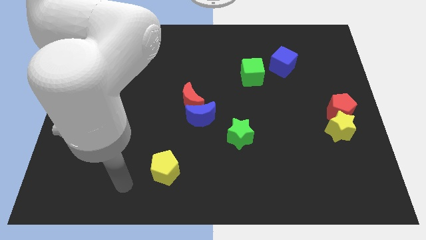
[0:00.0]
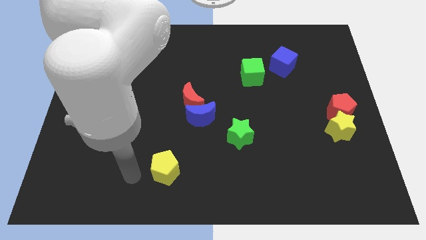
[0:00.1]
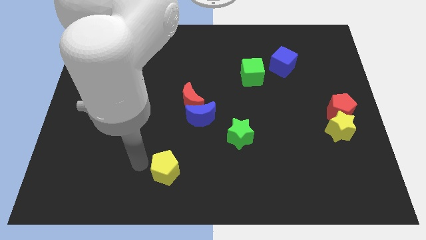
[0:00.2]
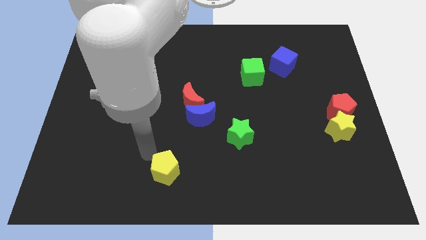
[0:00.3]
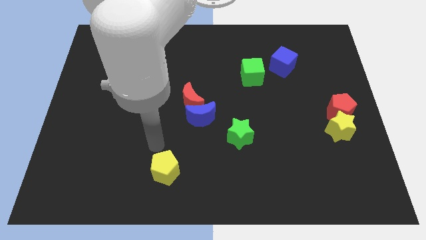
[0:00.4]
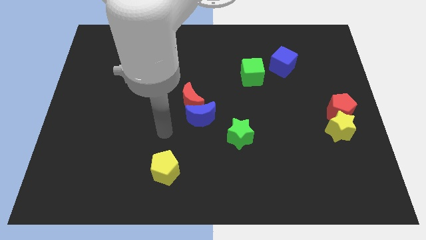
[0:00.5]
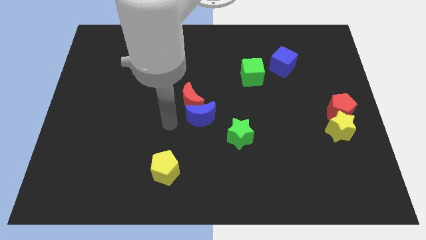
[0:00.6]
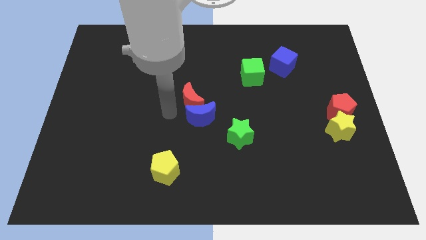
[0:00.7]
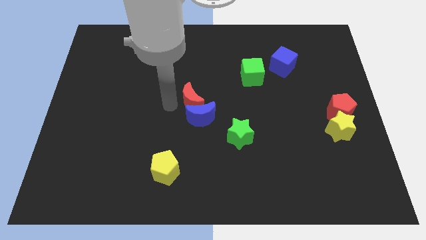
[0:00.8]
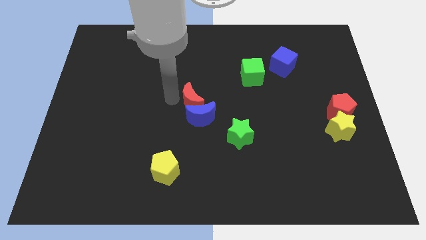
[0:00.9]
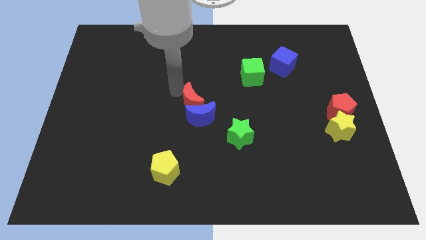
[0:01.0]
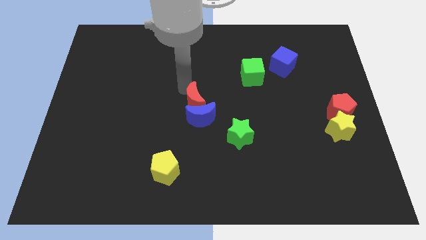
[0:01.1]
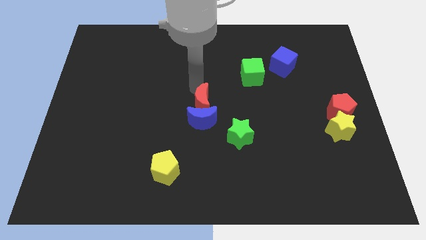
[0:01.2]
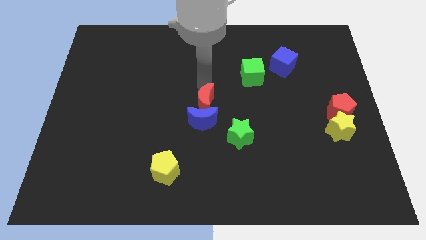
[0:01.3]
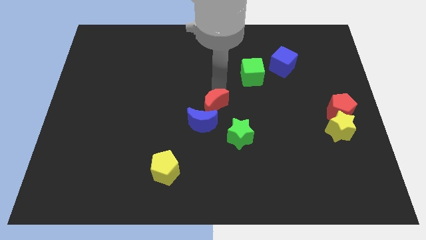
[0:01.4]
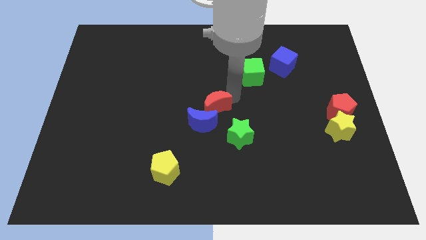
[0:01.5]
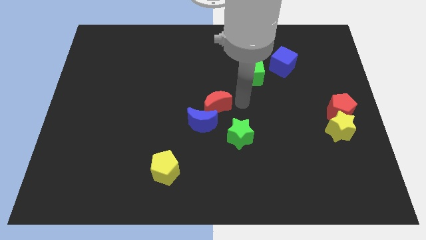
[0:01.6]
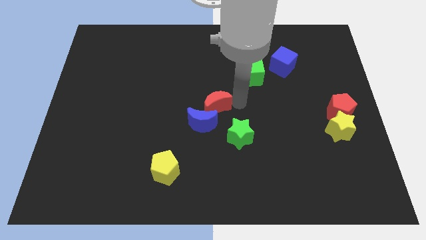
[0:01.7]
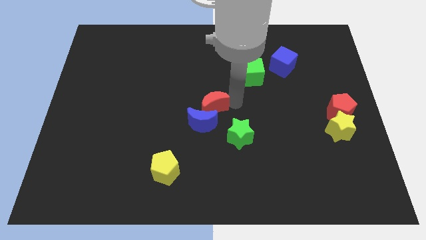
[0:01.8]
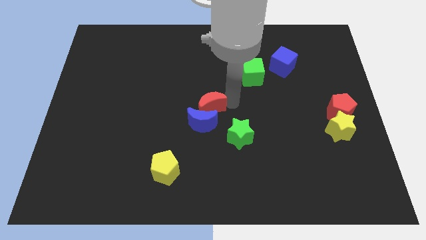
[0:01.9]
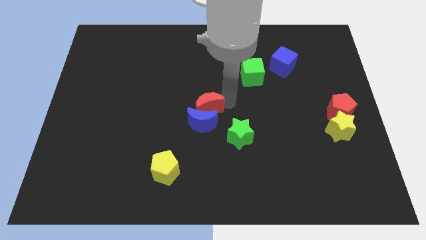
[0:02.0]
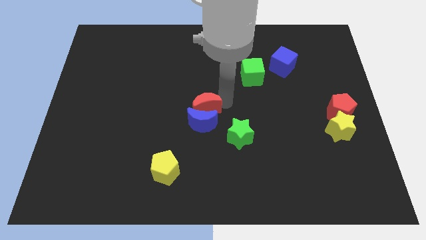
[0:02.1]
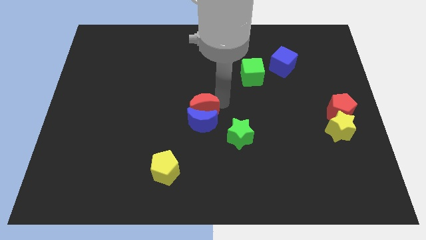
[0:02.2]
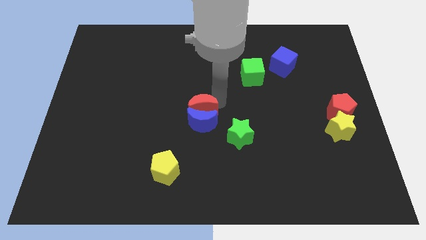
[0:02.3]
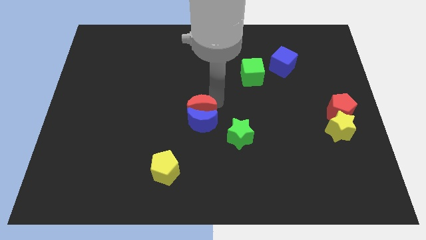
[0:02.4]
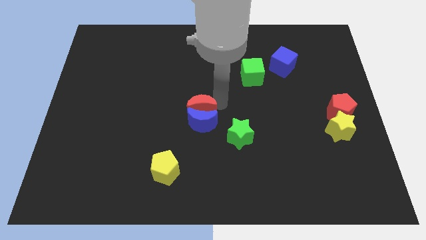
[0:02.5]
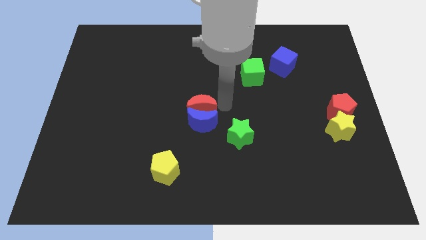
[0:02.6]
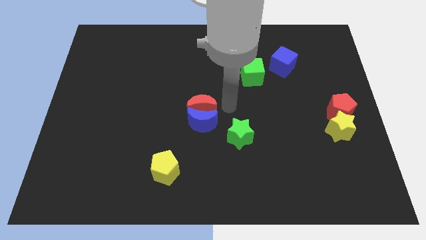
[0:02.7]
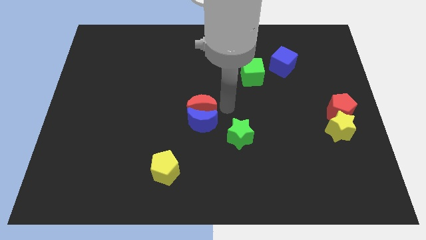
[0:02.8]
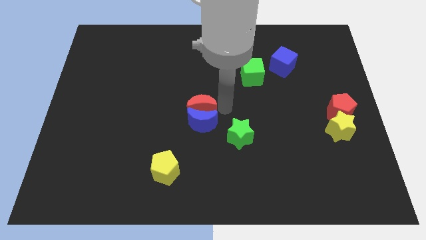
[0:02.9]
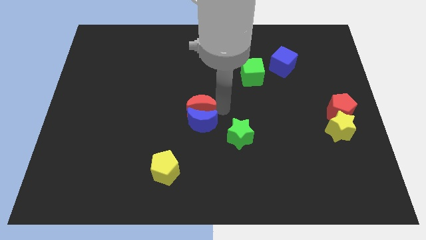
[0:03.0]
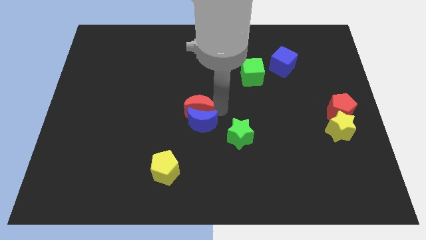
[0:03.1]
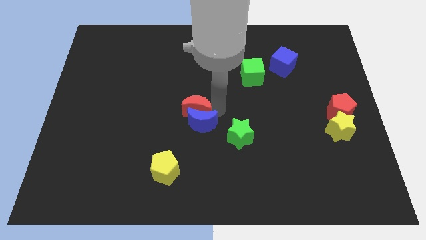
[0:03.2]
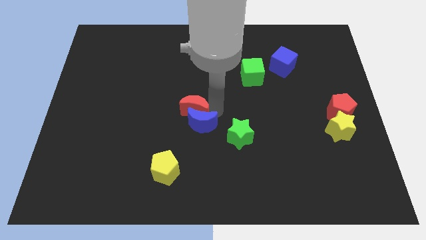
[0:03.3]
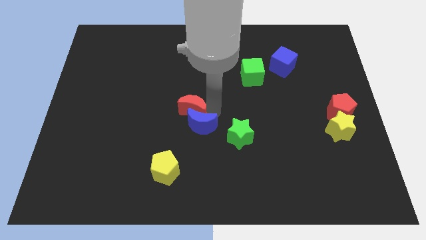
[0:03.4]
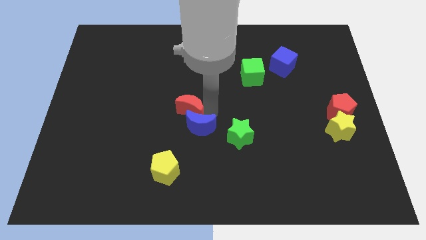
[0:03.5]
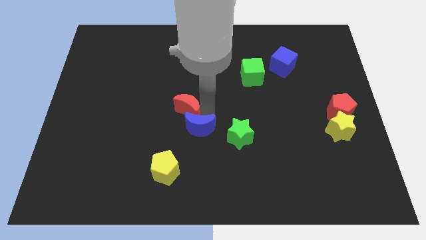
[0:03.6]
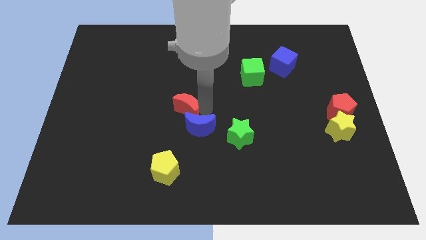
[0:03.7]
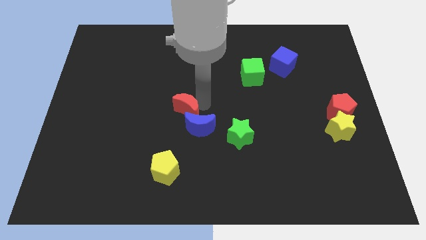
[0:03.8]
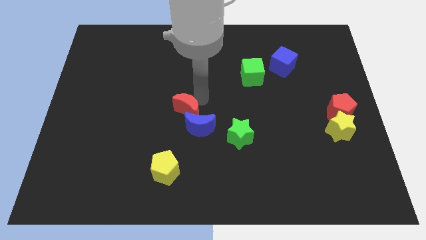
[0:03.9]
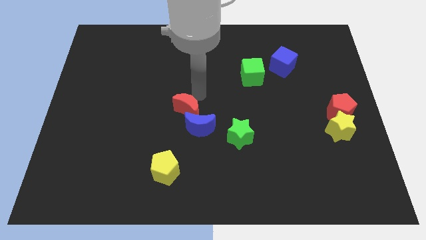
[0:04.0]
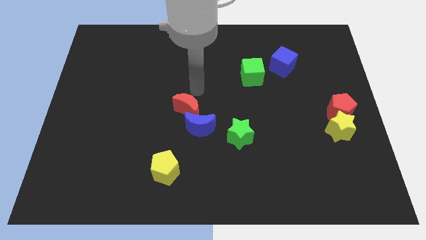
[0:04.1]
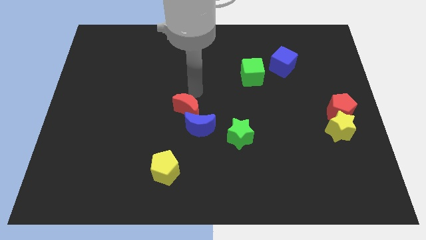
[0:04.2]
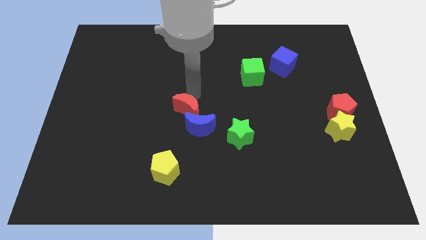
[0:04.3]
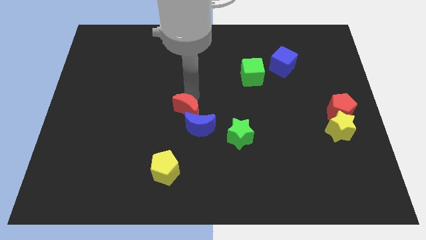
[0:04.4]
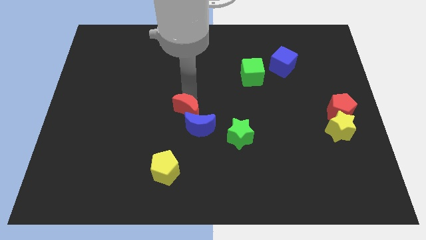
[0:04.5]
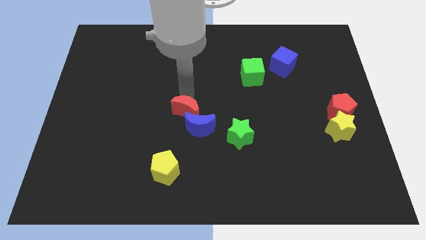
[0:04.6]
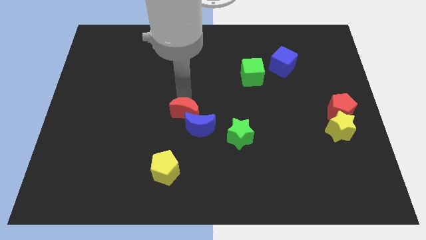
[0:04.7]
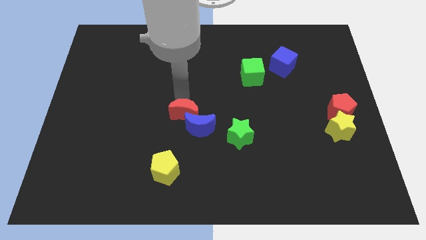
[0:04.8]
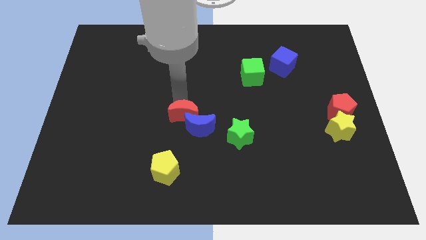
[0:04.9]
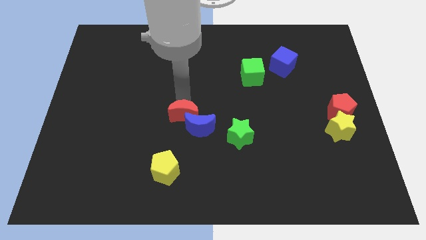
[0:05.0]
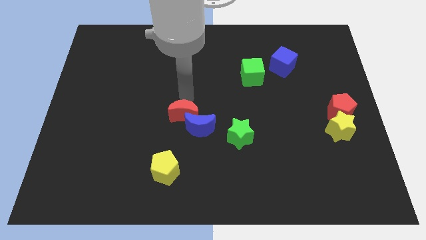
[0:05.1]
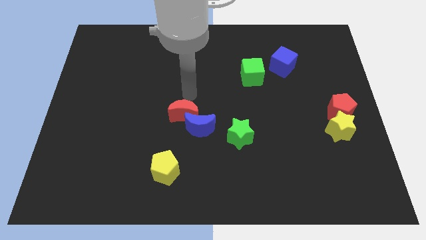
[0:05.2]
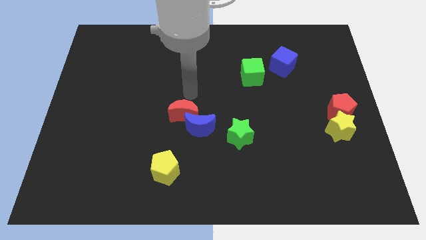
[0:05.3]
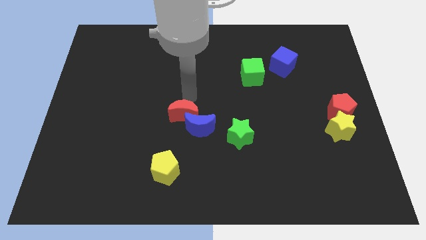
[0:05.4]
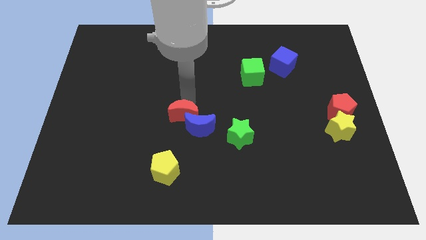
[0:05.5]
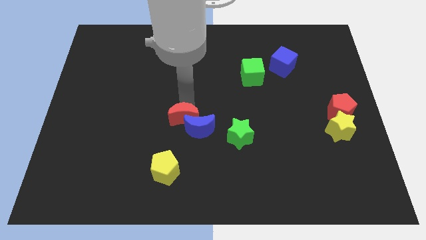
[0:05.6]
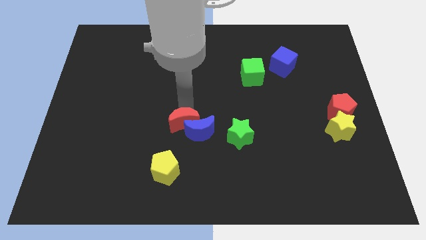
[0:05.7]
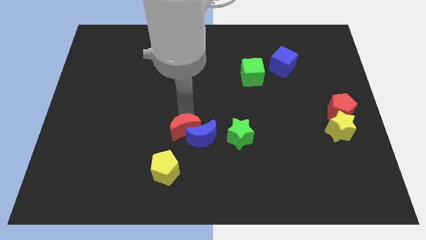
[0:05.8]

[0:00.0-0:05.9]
push the red moon somewhat downwards

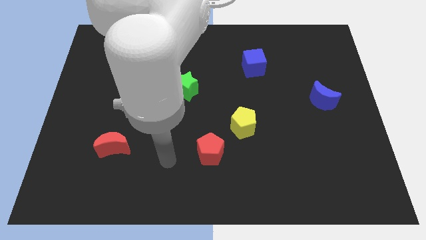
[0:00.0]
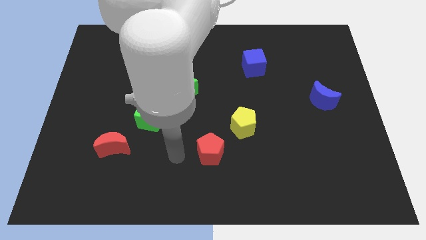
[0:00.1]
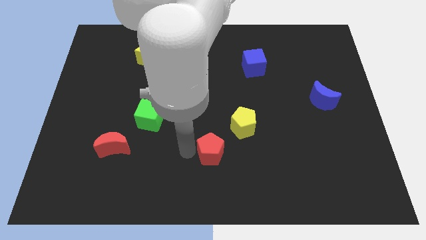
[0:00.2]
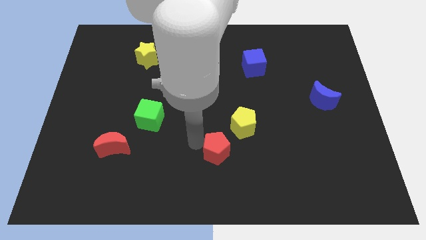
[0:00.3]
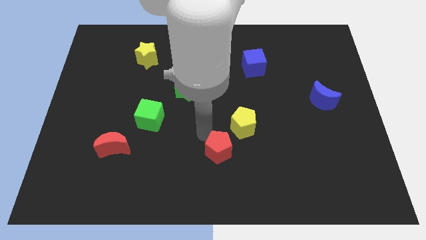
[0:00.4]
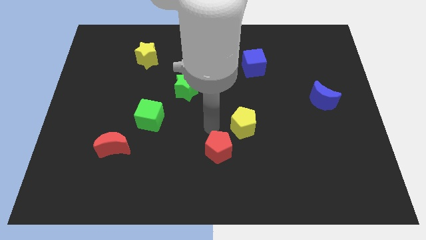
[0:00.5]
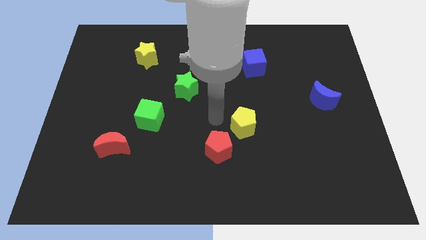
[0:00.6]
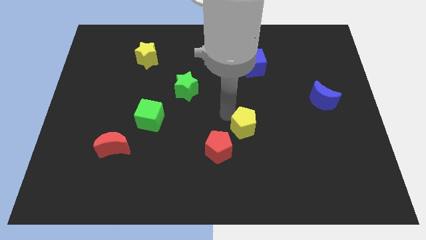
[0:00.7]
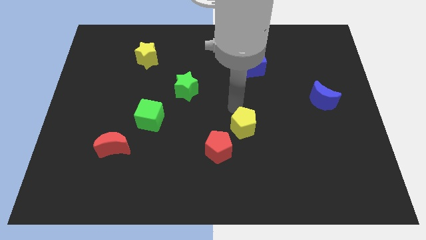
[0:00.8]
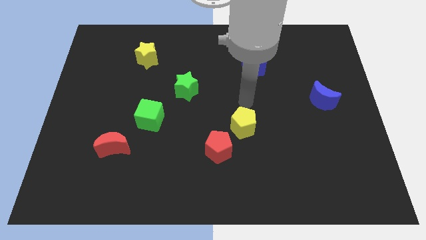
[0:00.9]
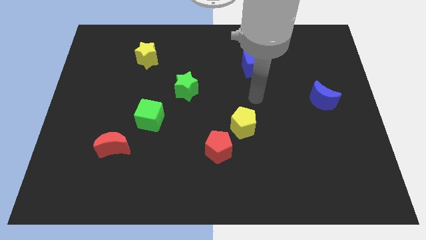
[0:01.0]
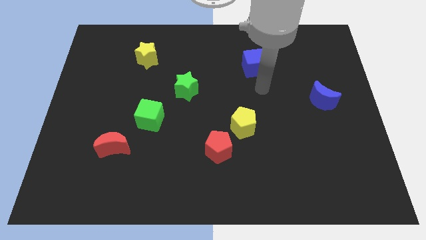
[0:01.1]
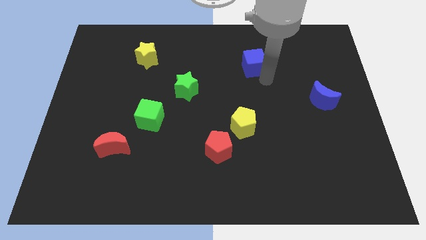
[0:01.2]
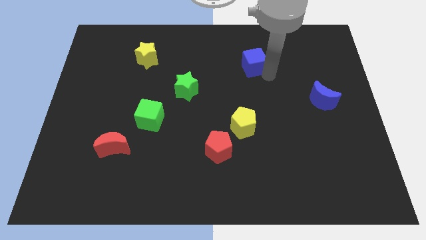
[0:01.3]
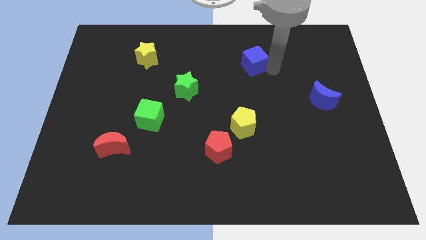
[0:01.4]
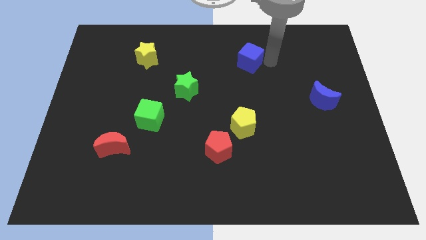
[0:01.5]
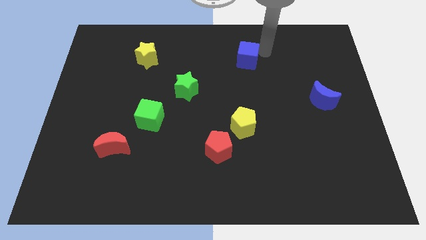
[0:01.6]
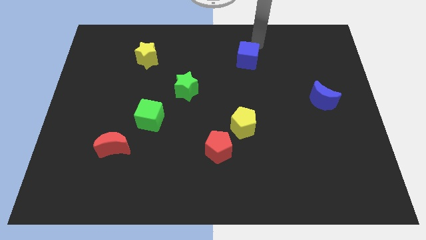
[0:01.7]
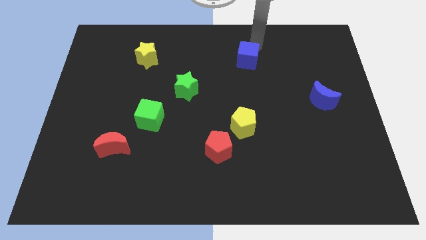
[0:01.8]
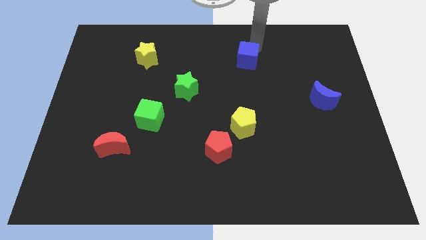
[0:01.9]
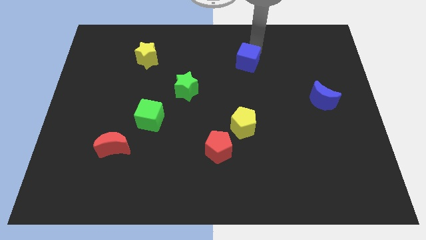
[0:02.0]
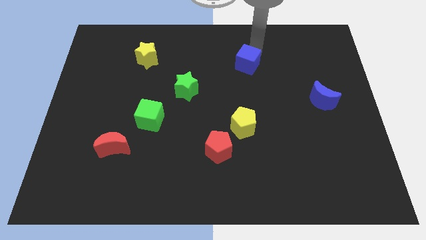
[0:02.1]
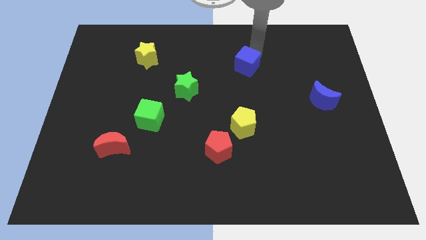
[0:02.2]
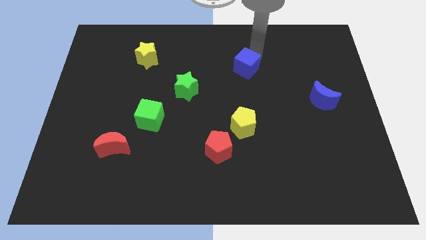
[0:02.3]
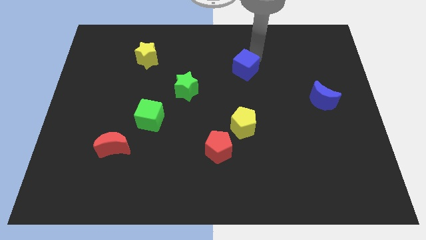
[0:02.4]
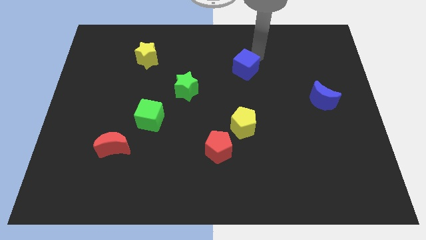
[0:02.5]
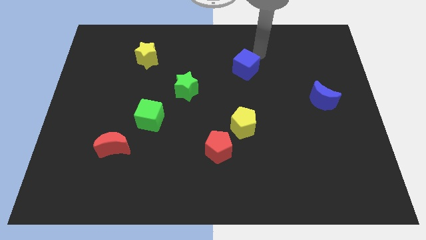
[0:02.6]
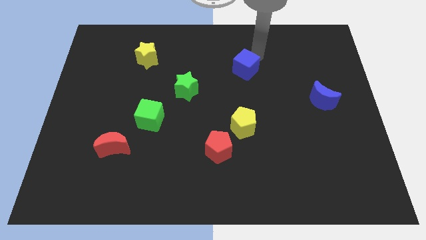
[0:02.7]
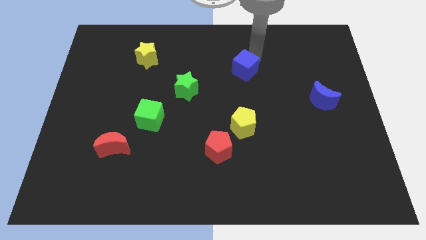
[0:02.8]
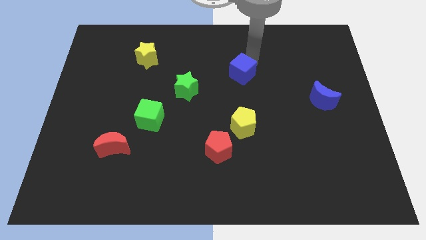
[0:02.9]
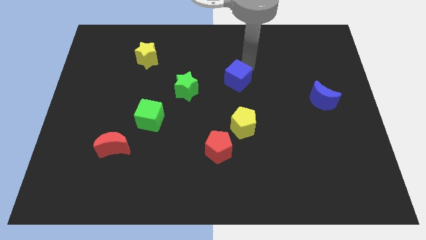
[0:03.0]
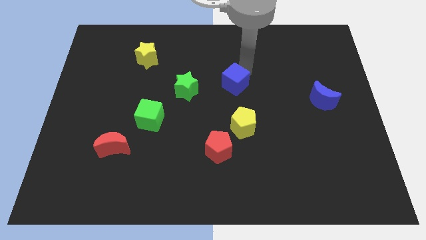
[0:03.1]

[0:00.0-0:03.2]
slightly slide the blue cube diagonally down and left
